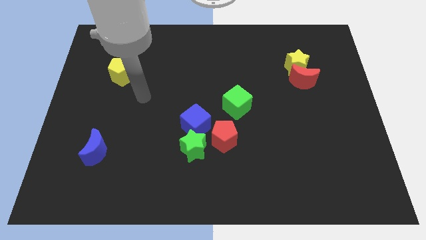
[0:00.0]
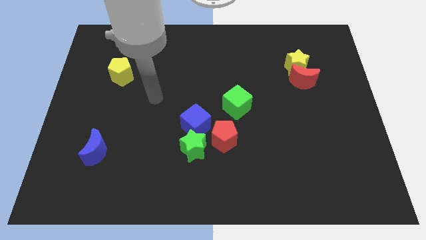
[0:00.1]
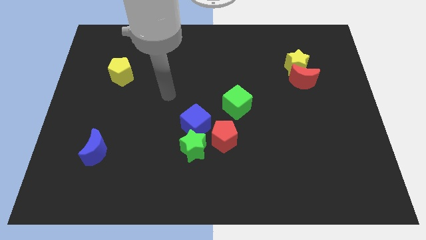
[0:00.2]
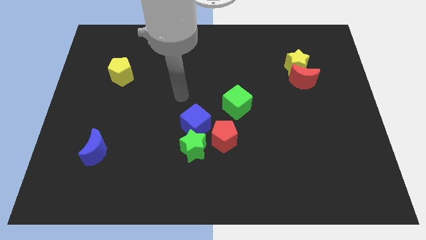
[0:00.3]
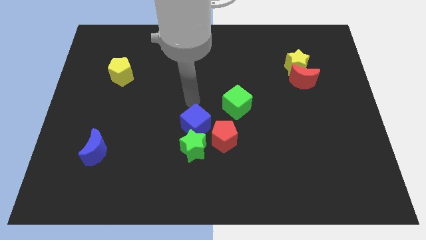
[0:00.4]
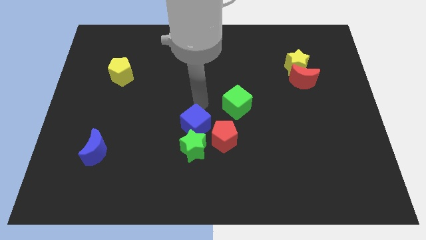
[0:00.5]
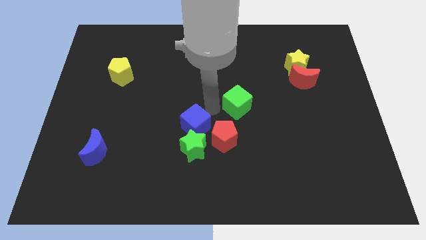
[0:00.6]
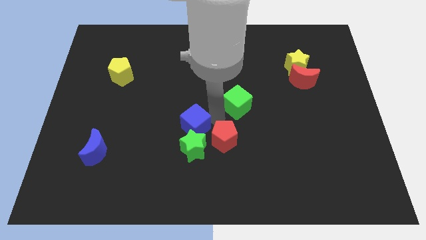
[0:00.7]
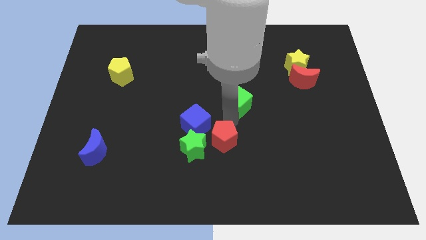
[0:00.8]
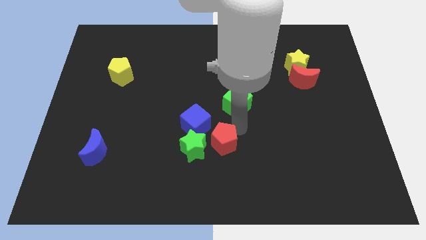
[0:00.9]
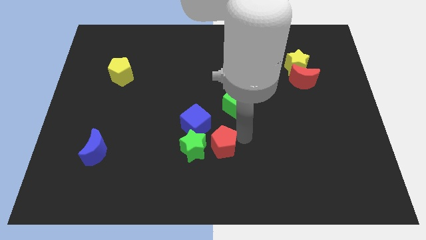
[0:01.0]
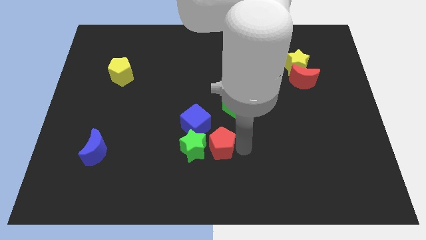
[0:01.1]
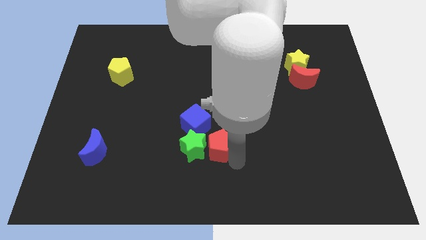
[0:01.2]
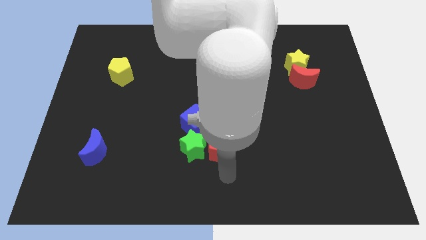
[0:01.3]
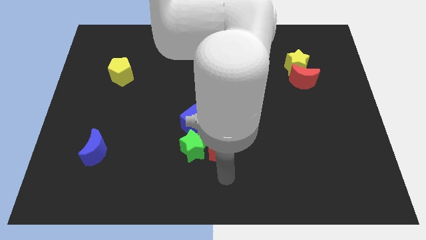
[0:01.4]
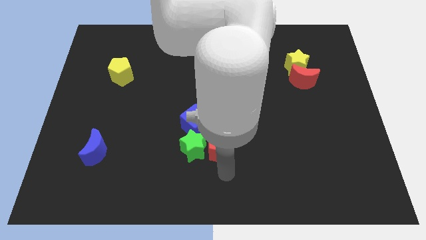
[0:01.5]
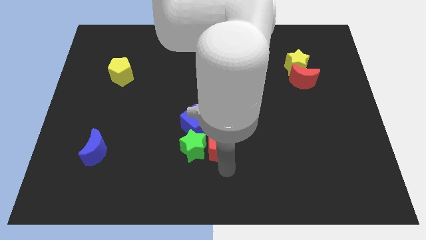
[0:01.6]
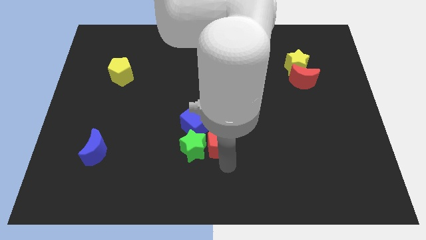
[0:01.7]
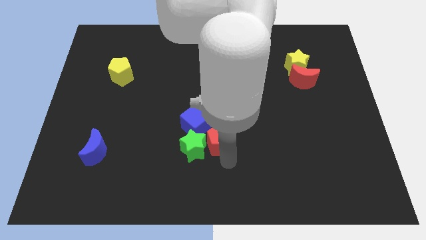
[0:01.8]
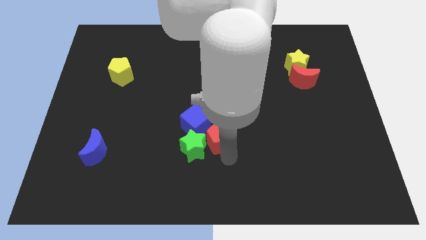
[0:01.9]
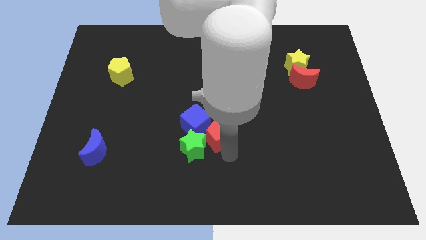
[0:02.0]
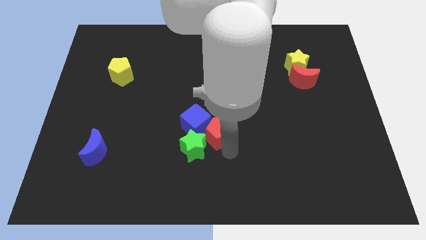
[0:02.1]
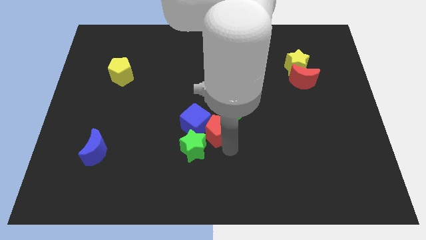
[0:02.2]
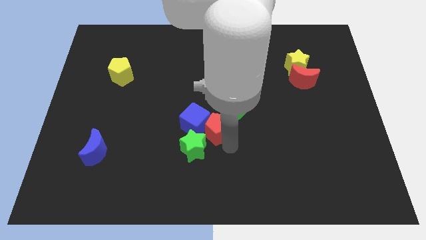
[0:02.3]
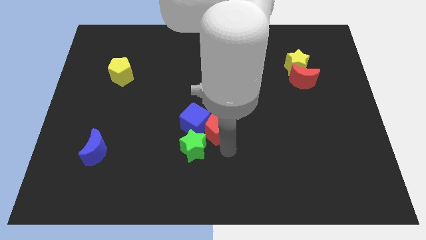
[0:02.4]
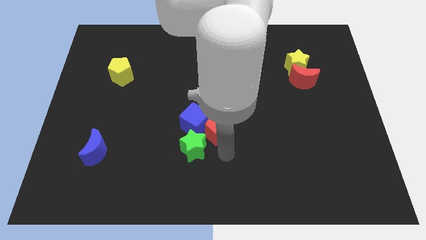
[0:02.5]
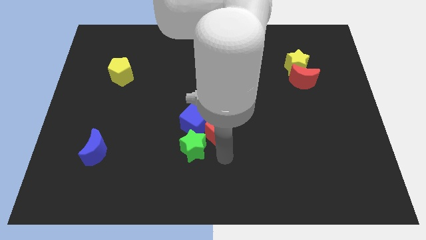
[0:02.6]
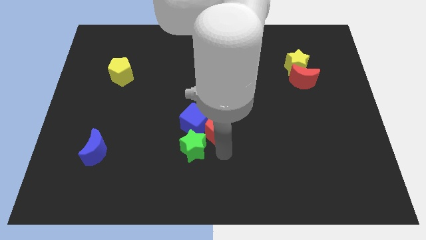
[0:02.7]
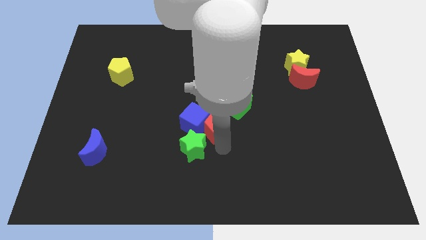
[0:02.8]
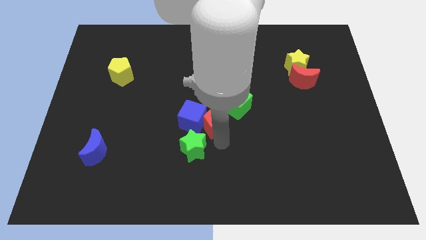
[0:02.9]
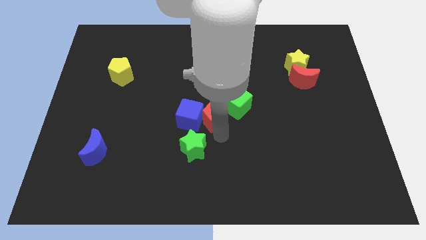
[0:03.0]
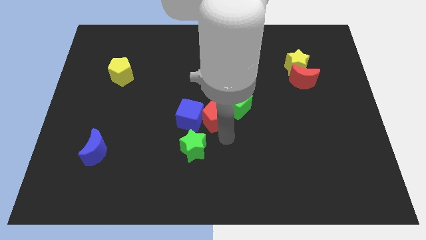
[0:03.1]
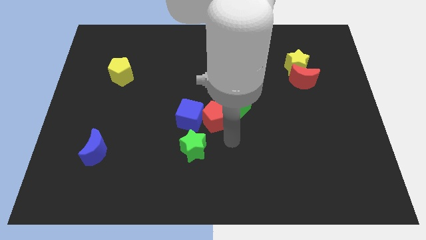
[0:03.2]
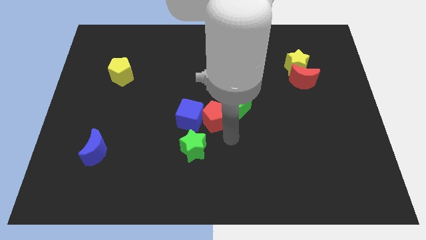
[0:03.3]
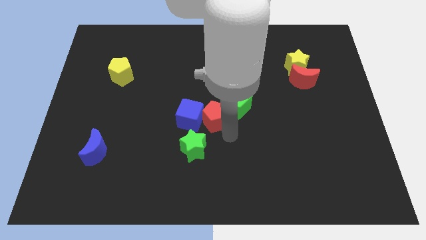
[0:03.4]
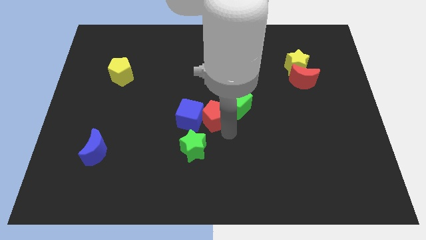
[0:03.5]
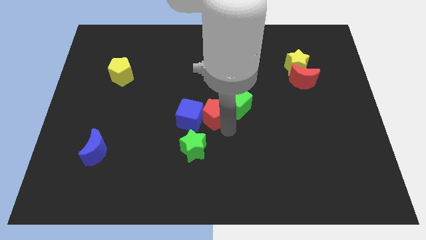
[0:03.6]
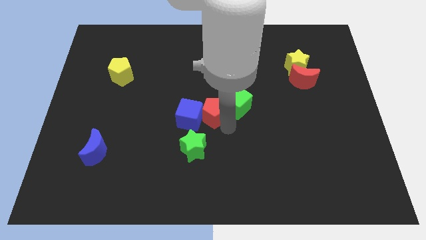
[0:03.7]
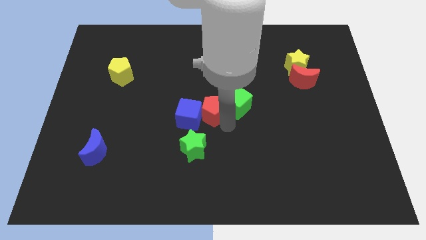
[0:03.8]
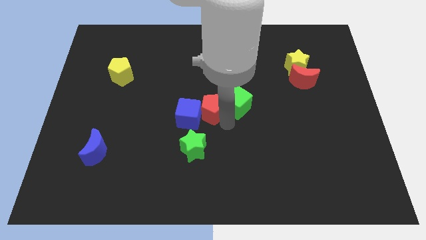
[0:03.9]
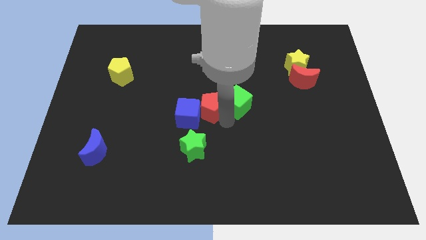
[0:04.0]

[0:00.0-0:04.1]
slightly push the red pentagon up and then left

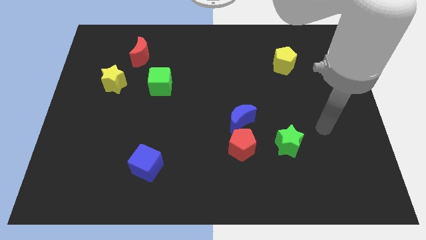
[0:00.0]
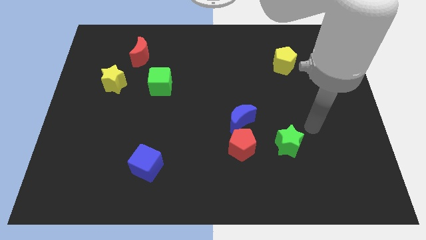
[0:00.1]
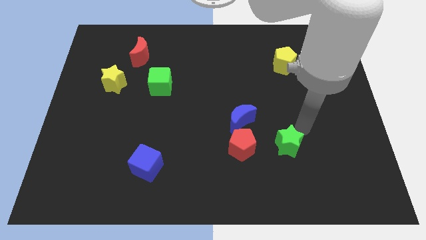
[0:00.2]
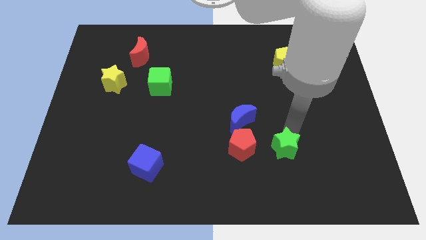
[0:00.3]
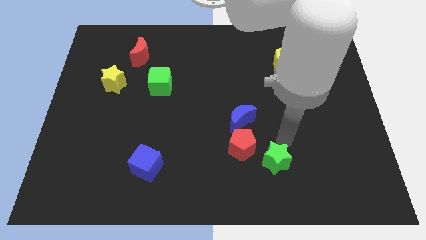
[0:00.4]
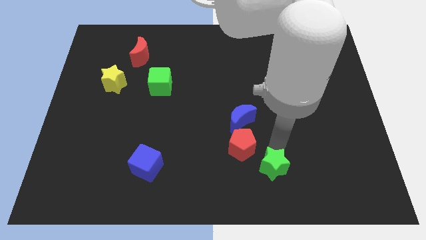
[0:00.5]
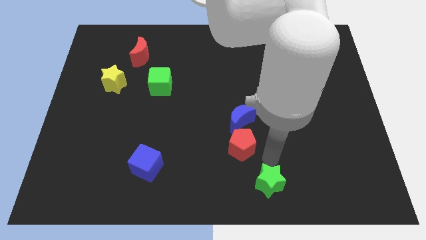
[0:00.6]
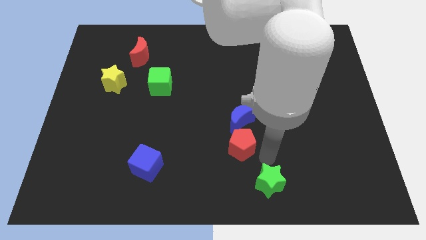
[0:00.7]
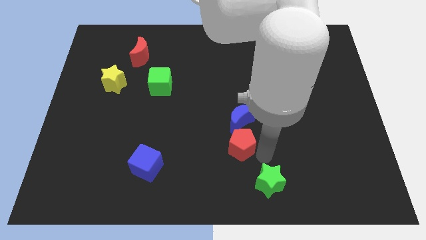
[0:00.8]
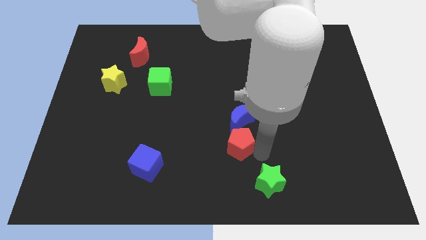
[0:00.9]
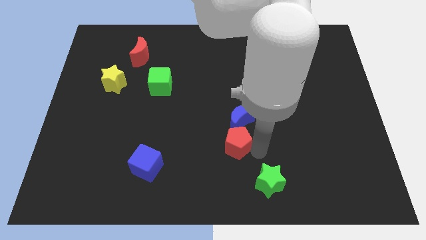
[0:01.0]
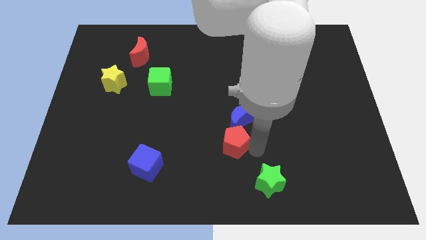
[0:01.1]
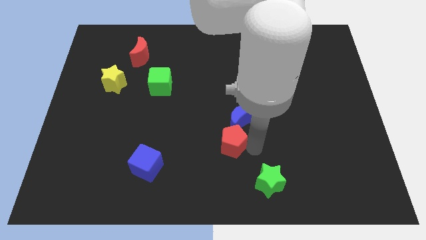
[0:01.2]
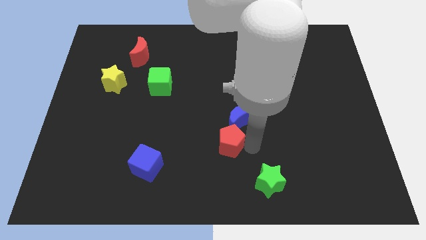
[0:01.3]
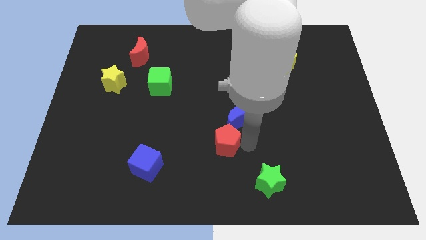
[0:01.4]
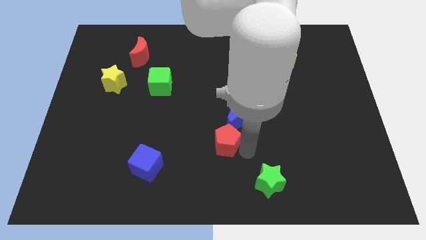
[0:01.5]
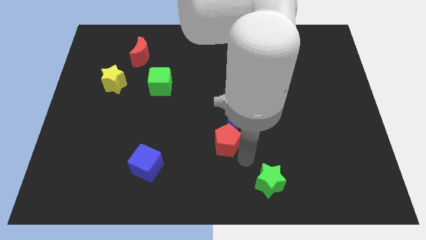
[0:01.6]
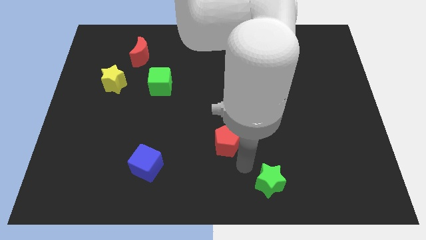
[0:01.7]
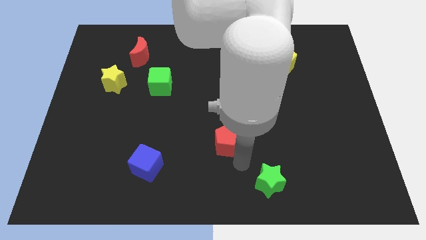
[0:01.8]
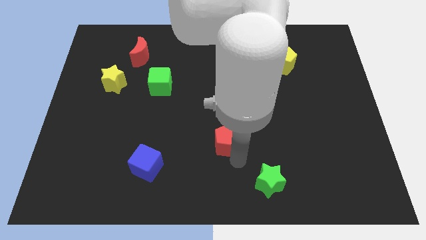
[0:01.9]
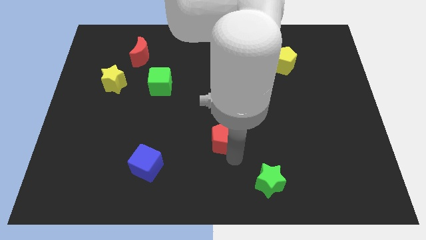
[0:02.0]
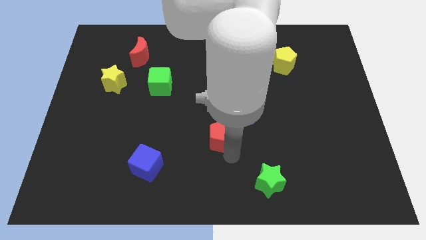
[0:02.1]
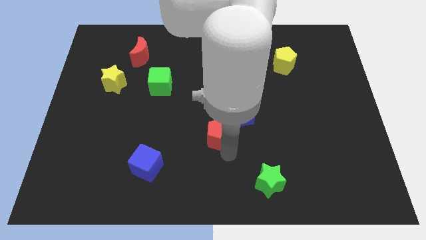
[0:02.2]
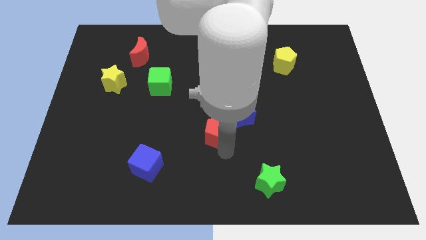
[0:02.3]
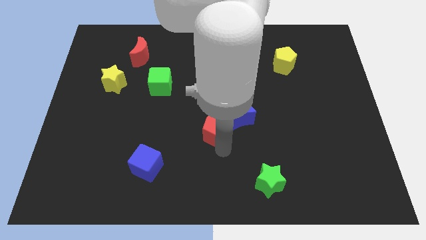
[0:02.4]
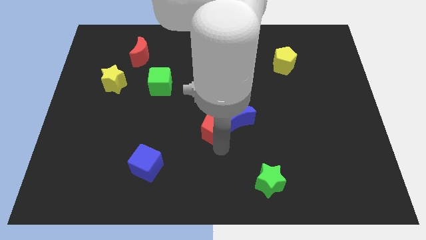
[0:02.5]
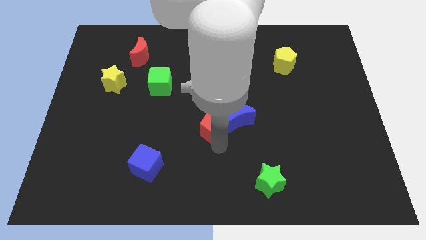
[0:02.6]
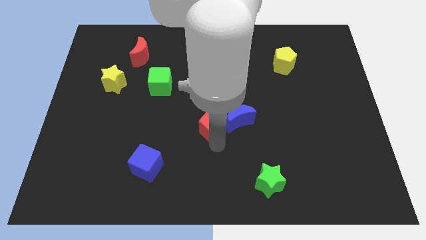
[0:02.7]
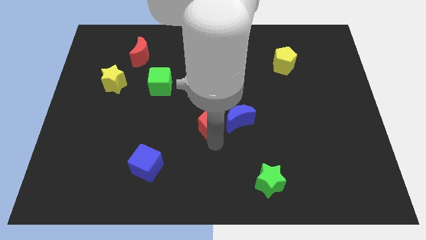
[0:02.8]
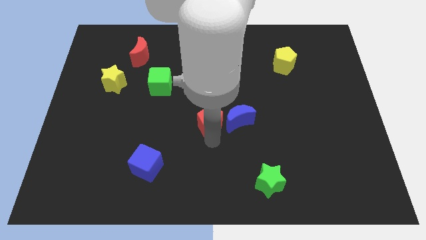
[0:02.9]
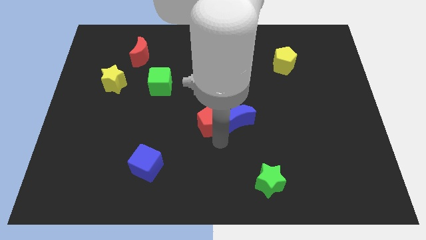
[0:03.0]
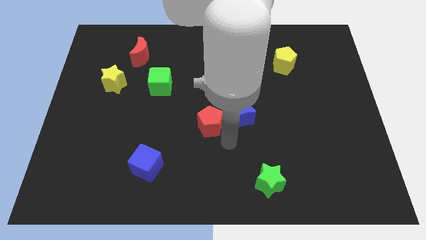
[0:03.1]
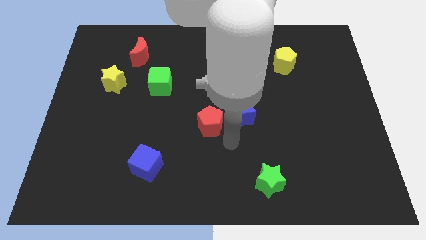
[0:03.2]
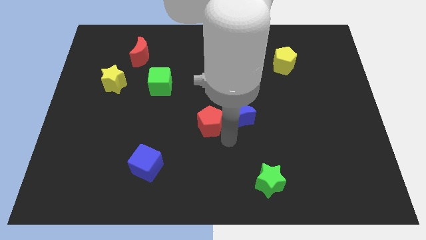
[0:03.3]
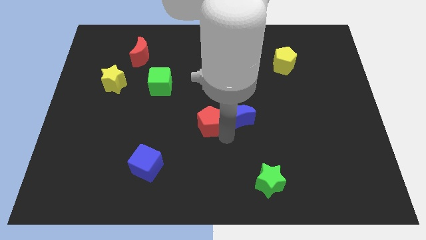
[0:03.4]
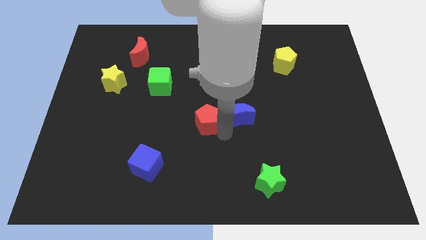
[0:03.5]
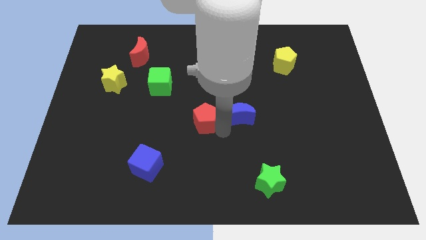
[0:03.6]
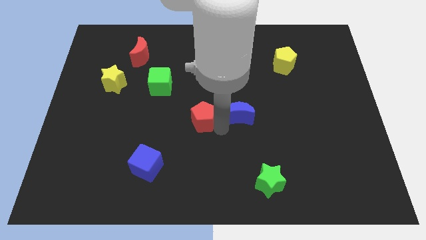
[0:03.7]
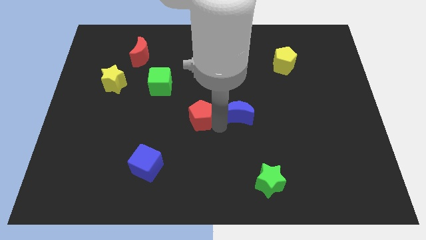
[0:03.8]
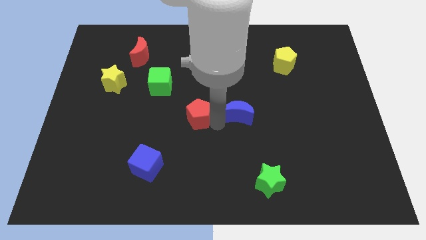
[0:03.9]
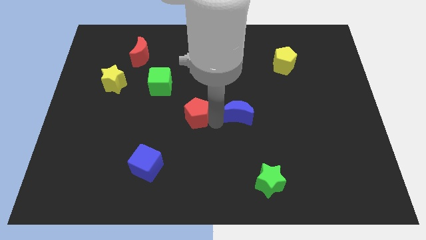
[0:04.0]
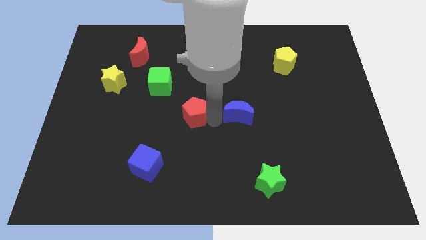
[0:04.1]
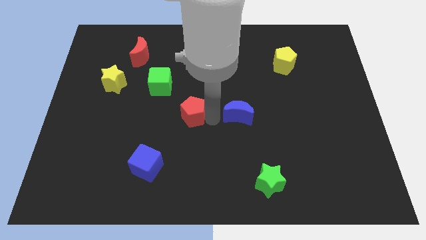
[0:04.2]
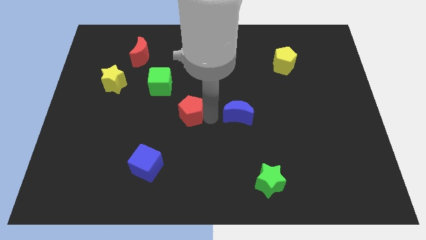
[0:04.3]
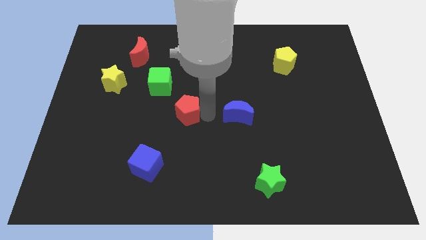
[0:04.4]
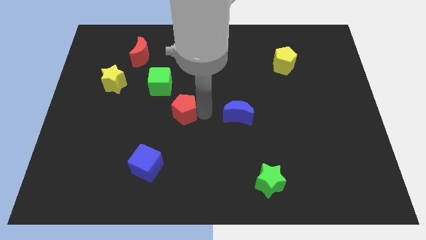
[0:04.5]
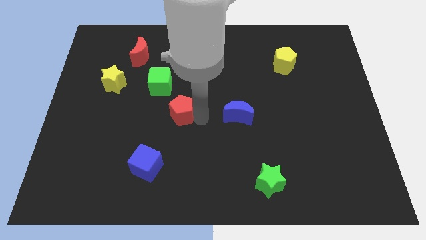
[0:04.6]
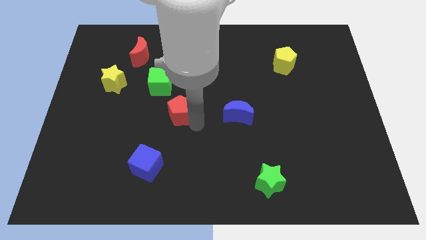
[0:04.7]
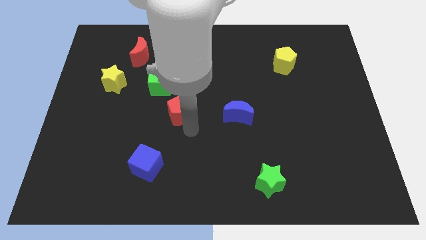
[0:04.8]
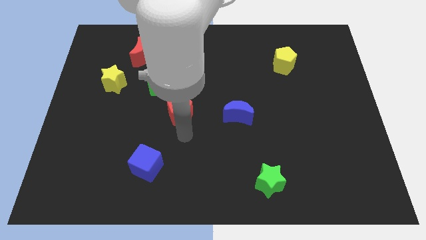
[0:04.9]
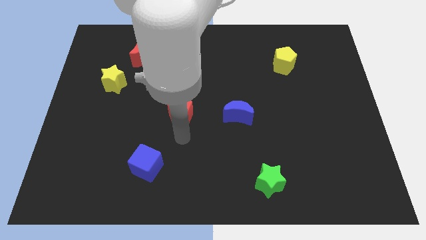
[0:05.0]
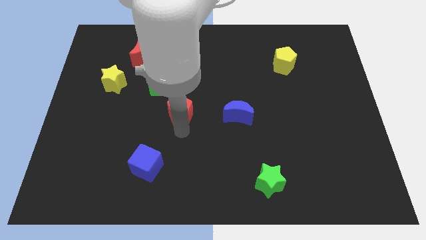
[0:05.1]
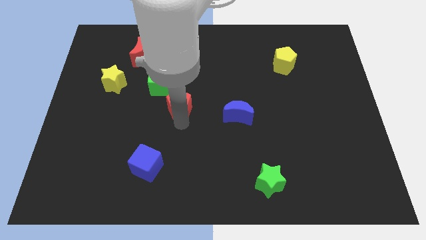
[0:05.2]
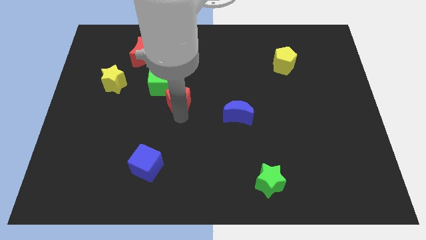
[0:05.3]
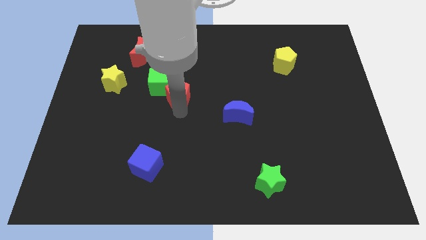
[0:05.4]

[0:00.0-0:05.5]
slide the red pentagon diagonally upwards and left
